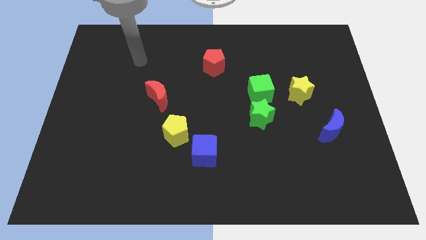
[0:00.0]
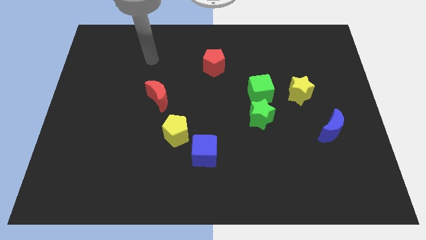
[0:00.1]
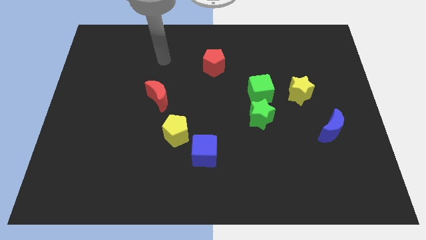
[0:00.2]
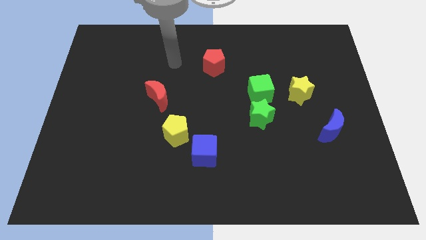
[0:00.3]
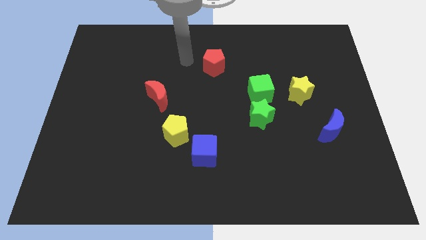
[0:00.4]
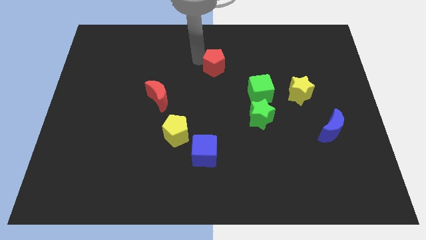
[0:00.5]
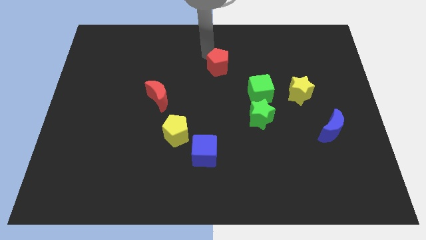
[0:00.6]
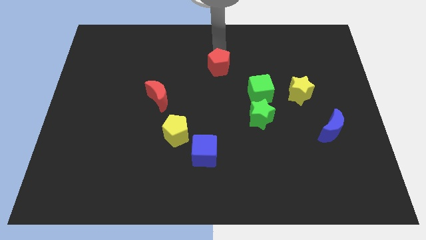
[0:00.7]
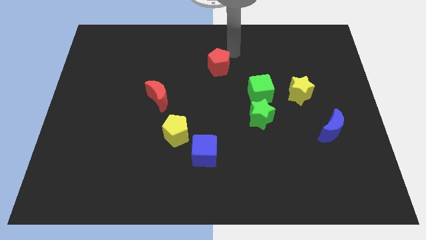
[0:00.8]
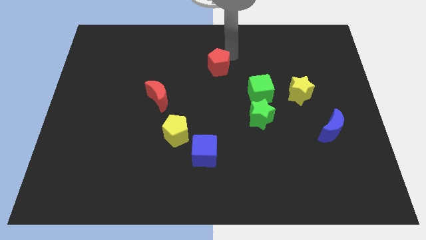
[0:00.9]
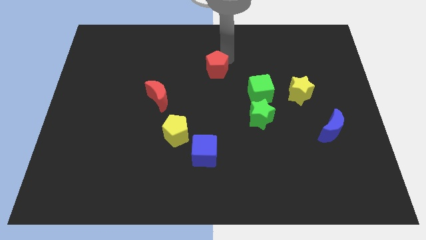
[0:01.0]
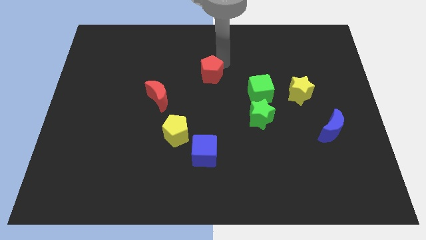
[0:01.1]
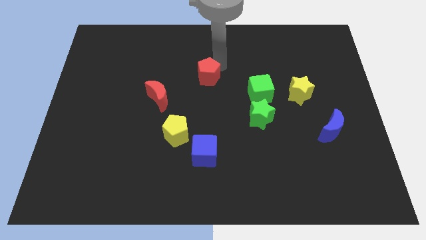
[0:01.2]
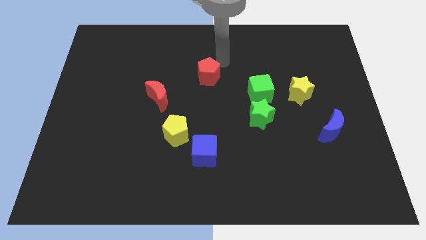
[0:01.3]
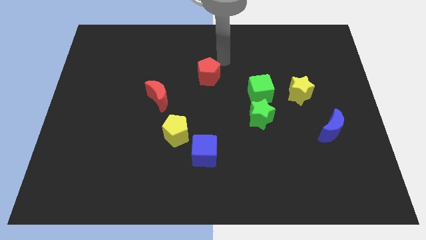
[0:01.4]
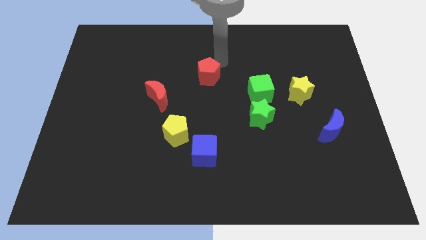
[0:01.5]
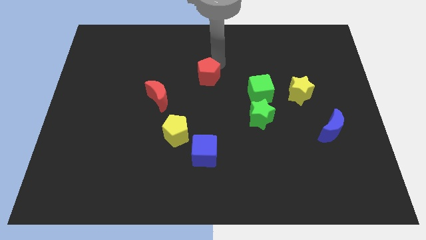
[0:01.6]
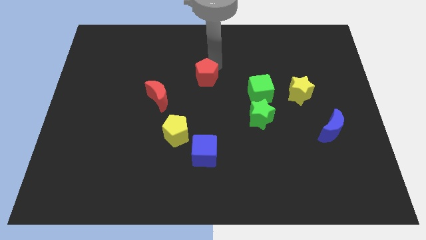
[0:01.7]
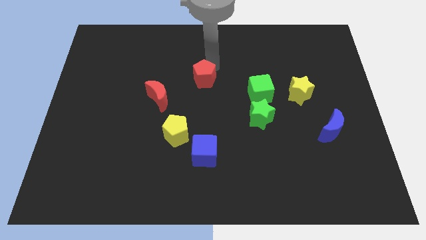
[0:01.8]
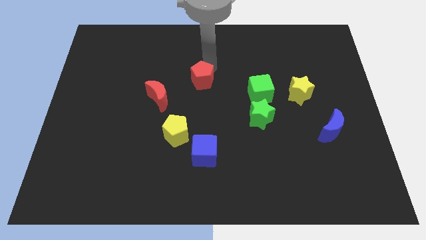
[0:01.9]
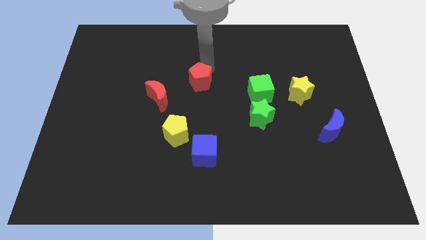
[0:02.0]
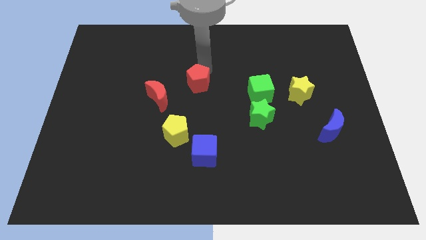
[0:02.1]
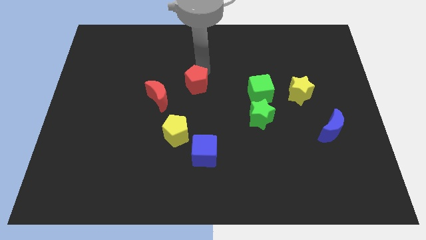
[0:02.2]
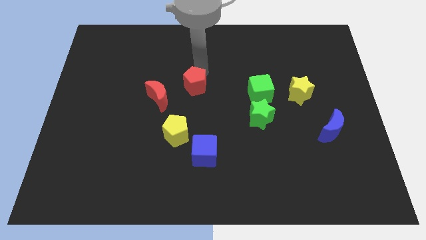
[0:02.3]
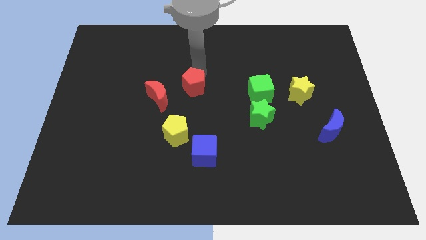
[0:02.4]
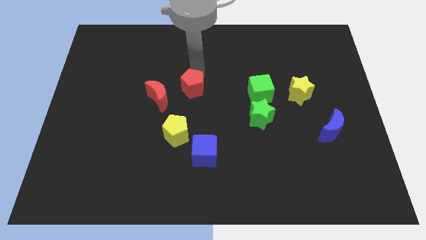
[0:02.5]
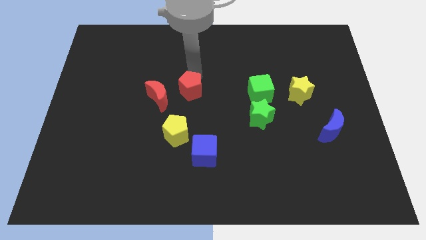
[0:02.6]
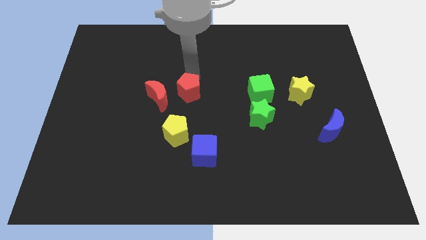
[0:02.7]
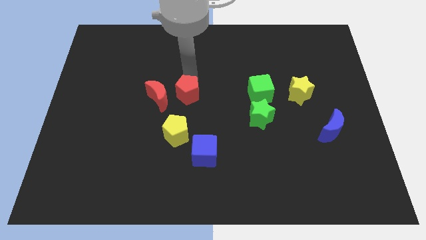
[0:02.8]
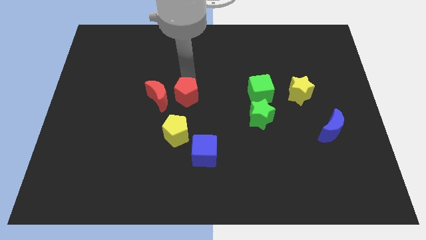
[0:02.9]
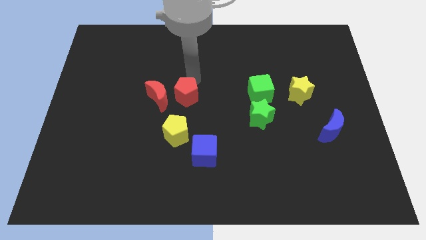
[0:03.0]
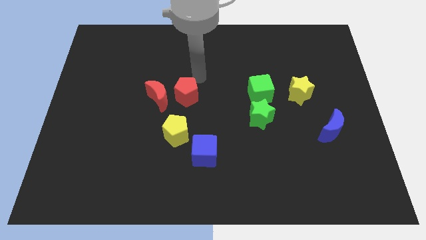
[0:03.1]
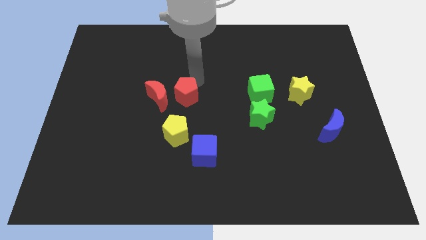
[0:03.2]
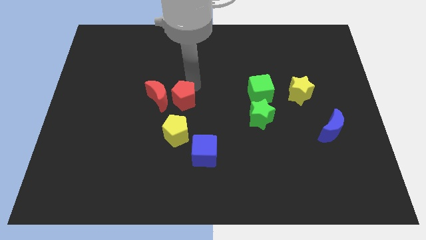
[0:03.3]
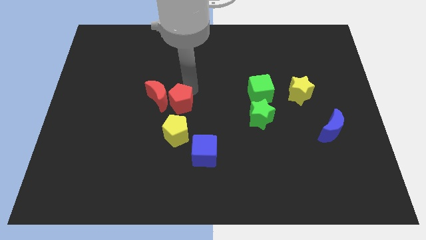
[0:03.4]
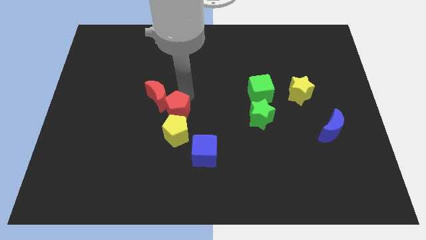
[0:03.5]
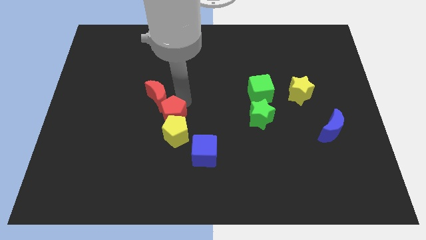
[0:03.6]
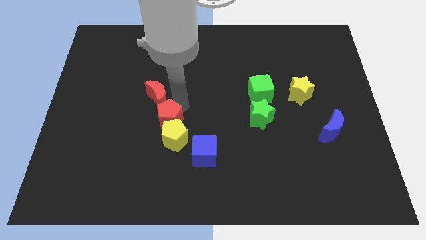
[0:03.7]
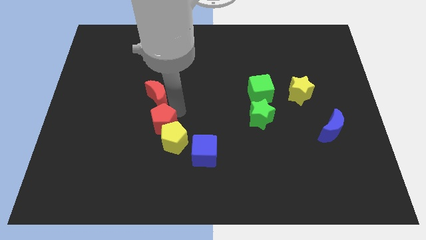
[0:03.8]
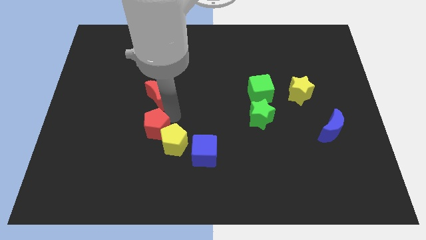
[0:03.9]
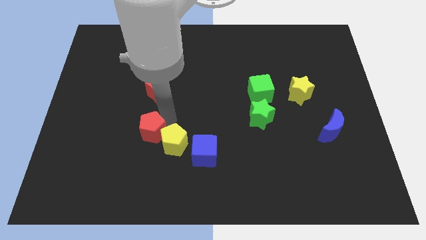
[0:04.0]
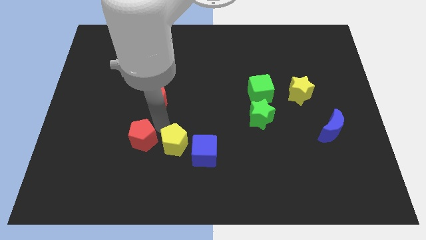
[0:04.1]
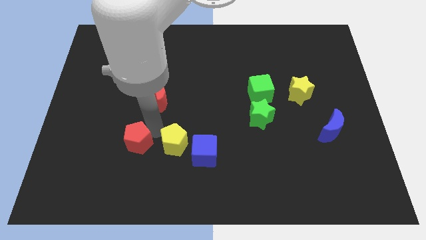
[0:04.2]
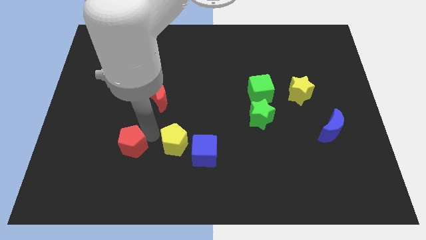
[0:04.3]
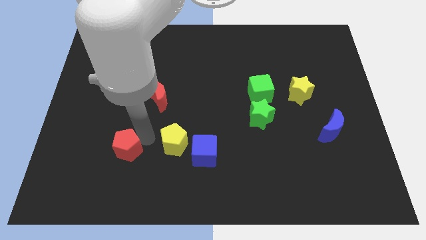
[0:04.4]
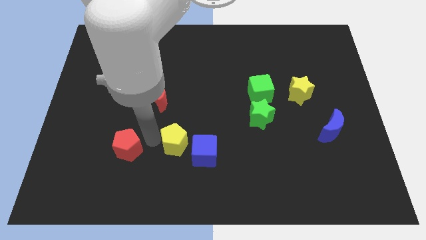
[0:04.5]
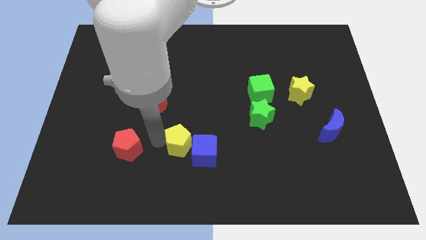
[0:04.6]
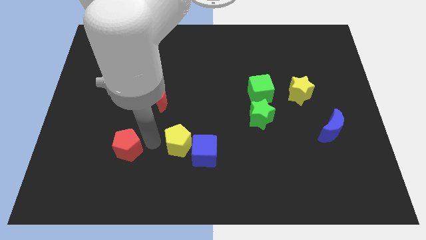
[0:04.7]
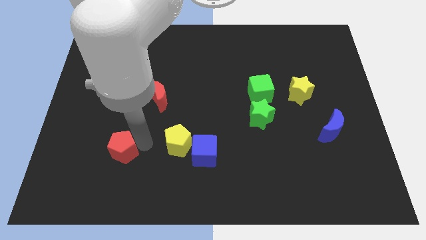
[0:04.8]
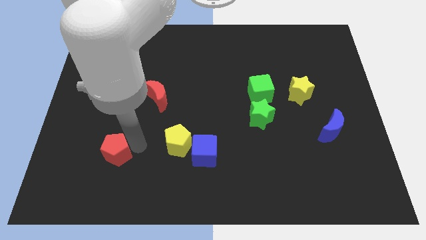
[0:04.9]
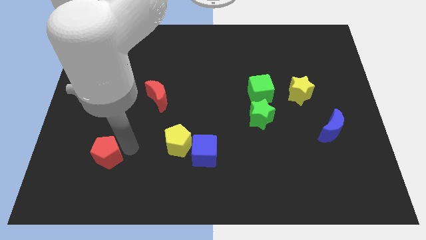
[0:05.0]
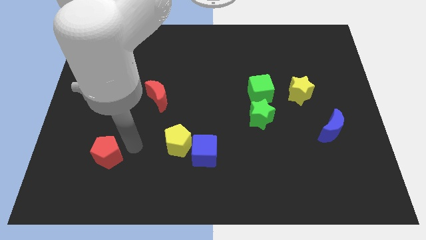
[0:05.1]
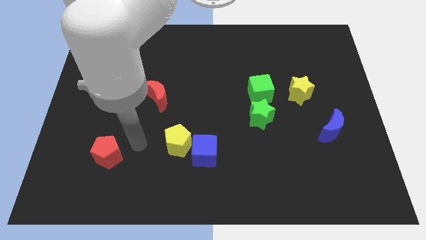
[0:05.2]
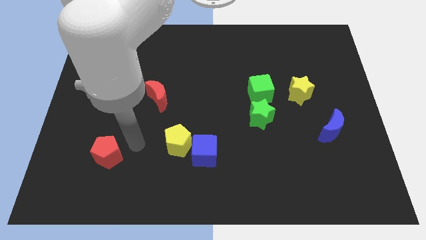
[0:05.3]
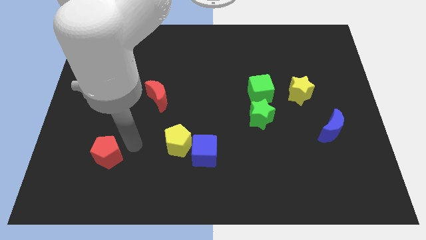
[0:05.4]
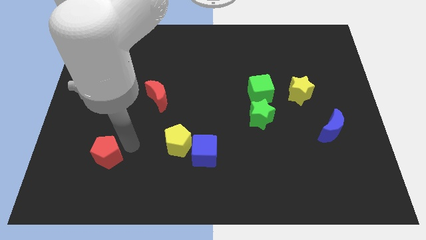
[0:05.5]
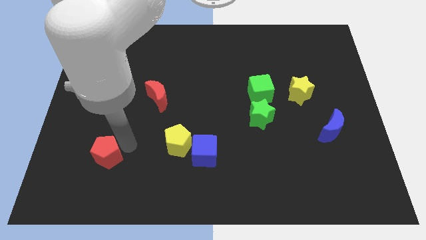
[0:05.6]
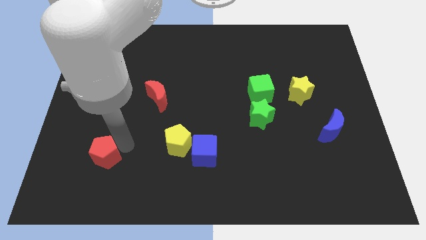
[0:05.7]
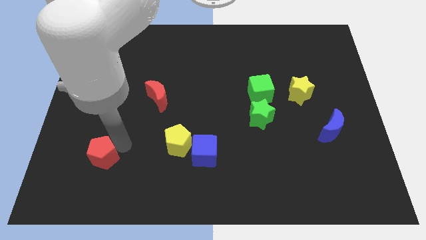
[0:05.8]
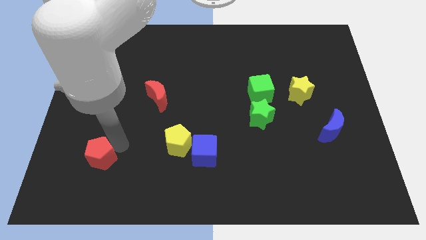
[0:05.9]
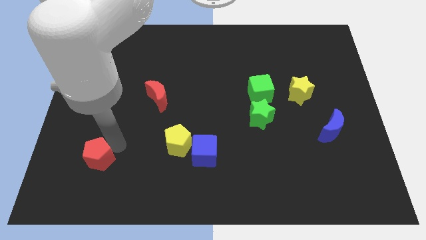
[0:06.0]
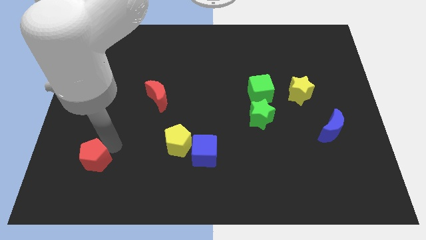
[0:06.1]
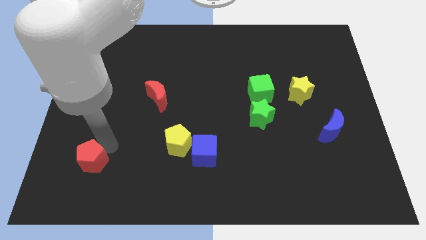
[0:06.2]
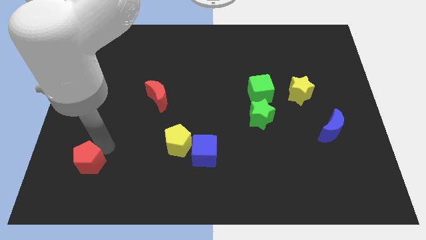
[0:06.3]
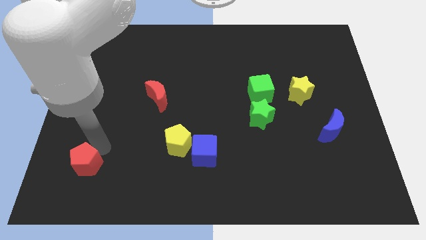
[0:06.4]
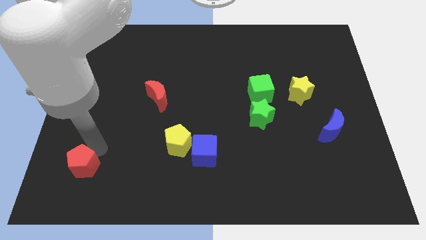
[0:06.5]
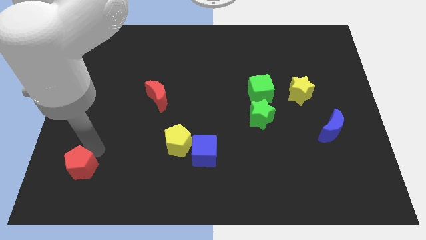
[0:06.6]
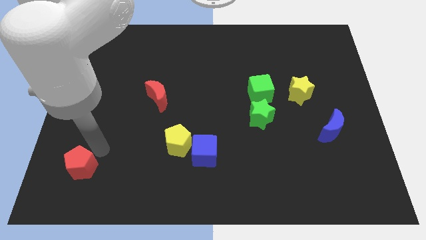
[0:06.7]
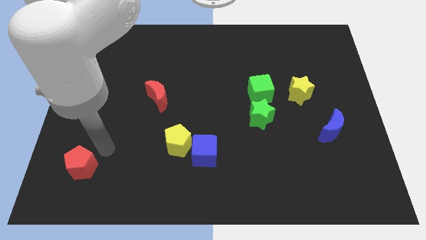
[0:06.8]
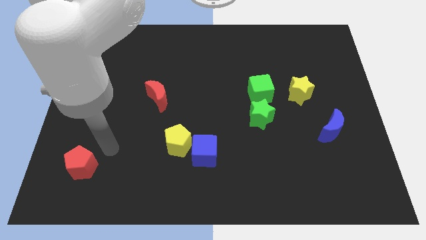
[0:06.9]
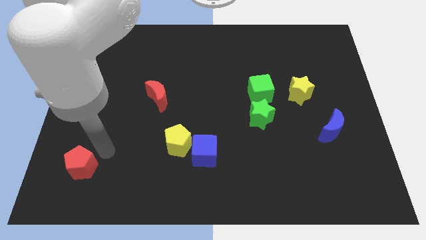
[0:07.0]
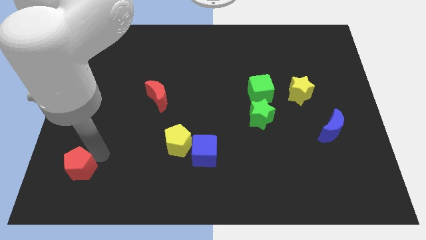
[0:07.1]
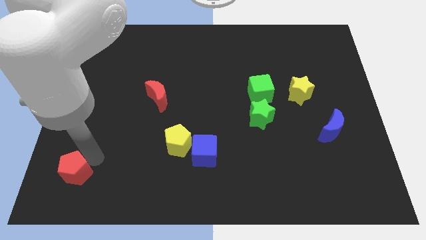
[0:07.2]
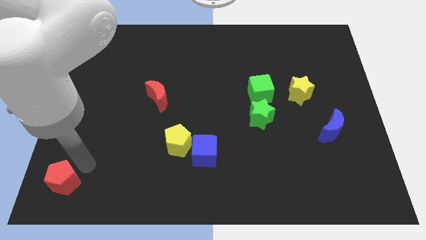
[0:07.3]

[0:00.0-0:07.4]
push the red pentagon to the bottom left corner
